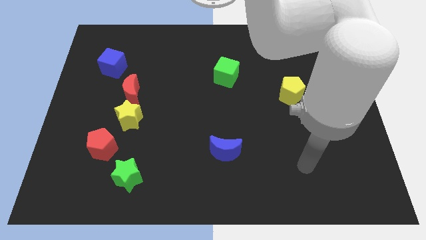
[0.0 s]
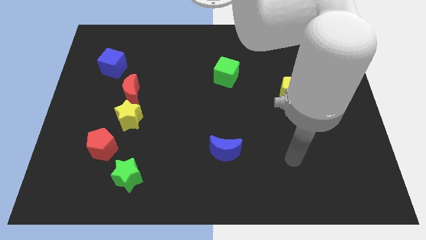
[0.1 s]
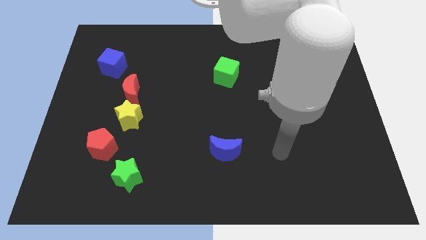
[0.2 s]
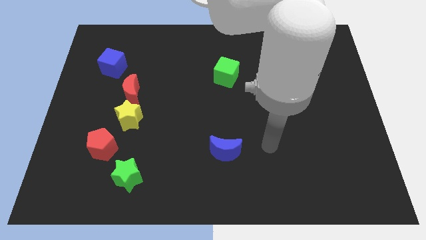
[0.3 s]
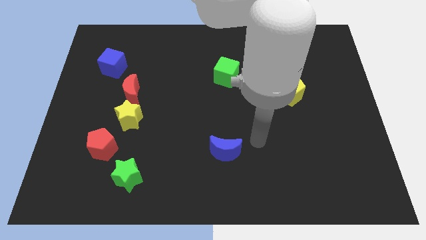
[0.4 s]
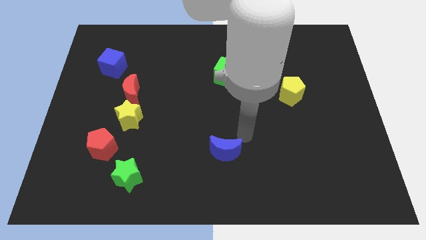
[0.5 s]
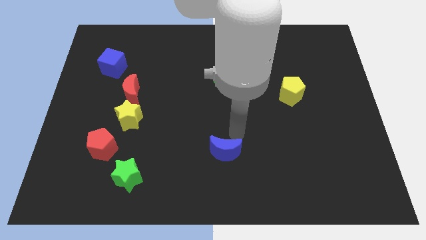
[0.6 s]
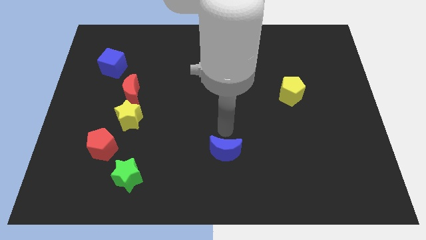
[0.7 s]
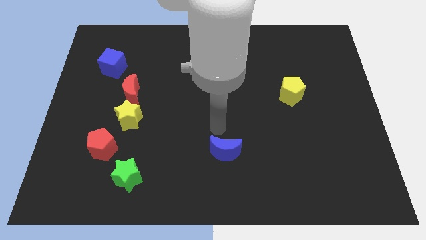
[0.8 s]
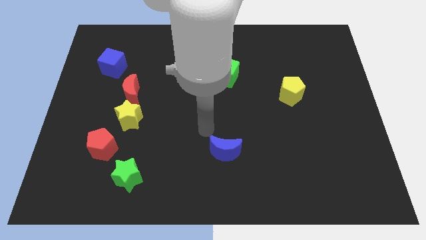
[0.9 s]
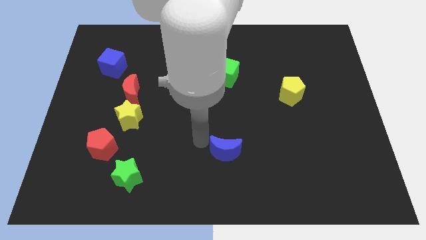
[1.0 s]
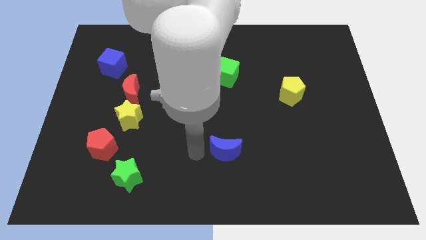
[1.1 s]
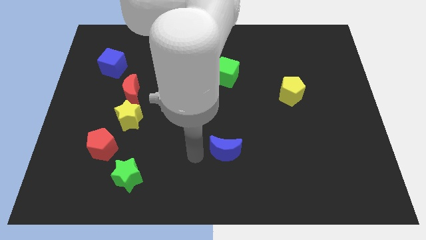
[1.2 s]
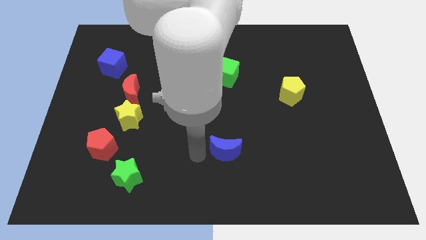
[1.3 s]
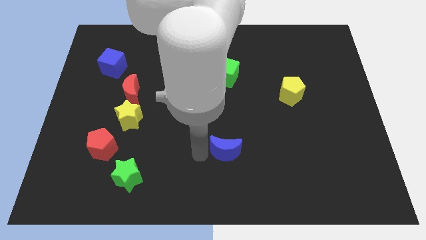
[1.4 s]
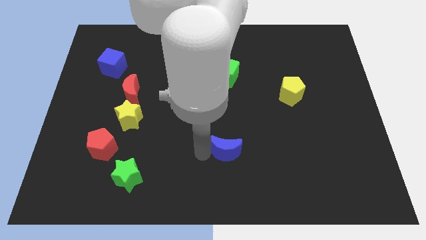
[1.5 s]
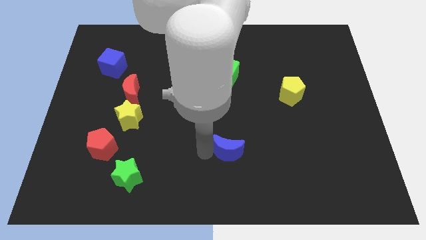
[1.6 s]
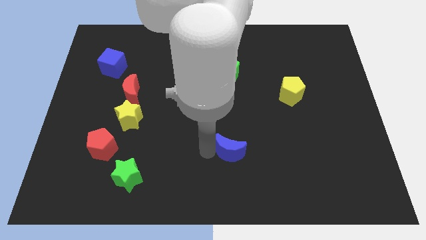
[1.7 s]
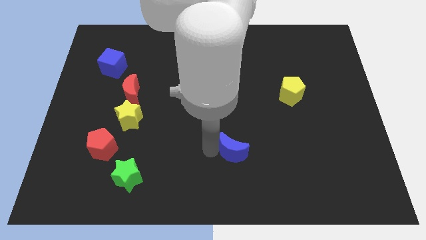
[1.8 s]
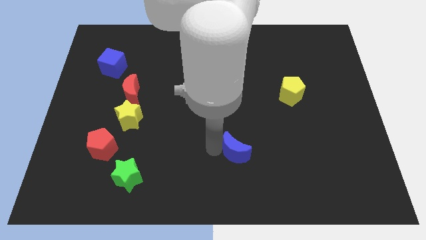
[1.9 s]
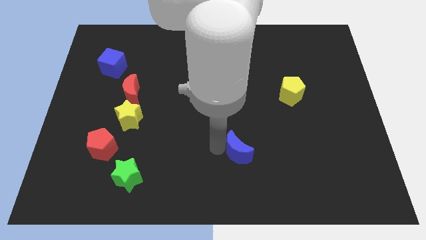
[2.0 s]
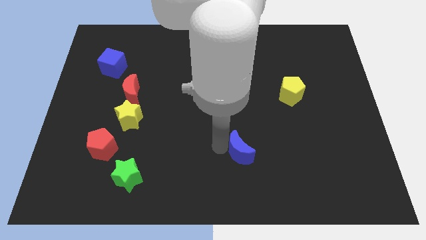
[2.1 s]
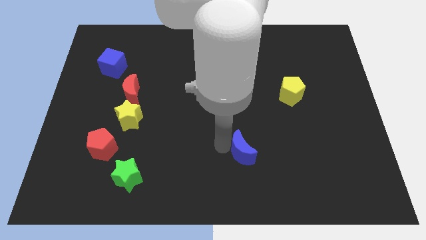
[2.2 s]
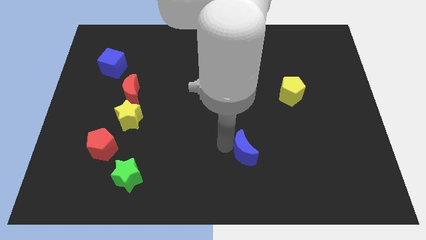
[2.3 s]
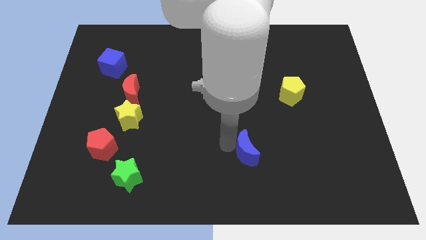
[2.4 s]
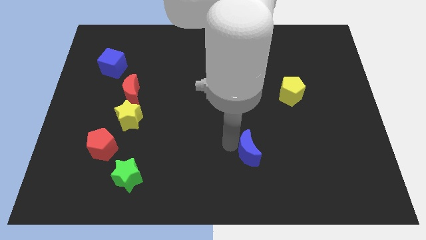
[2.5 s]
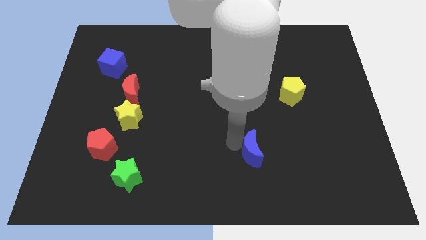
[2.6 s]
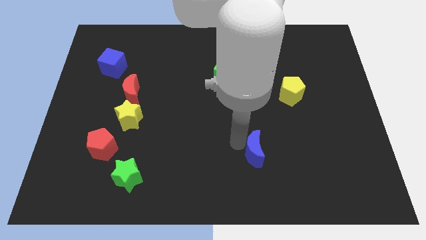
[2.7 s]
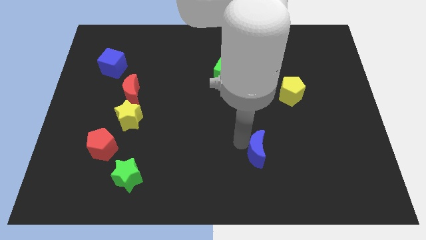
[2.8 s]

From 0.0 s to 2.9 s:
slightly slide the blue moon to the right

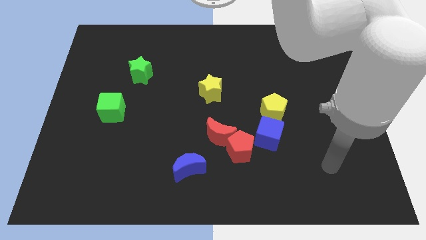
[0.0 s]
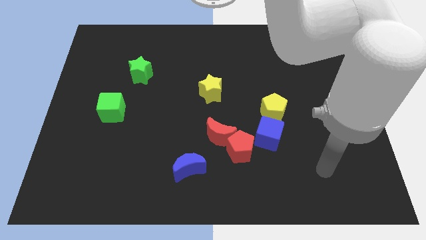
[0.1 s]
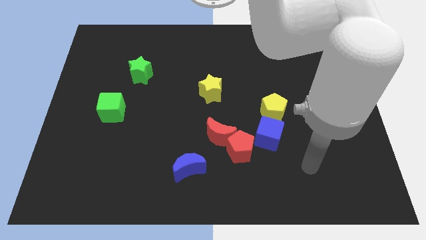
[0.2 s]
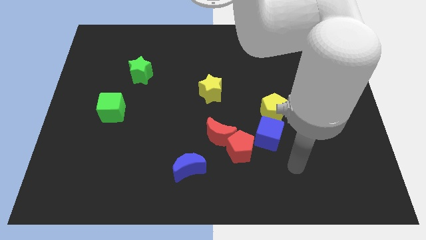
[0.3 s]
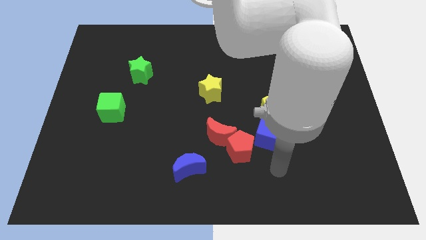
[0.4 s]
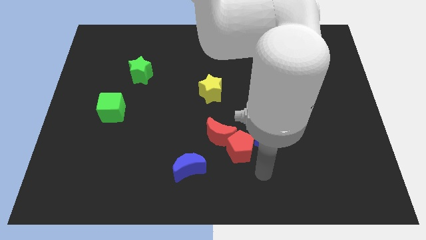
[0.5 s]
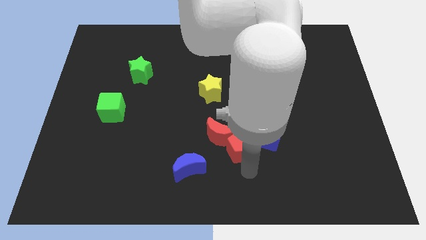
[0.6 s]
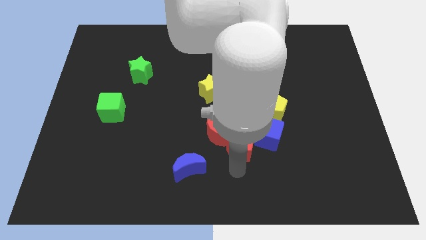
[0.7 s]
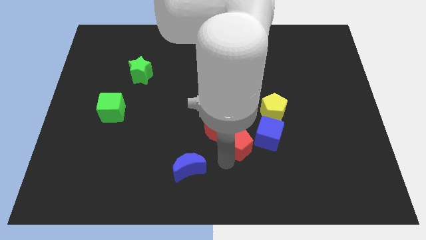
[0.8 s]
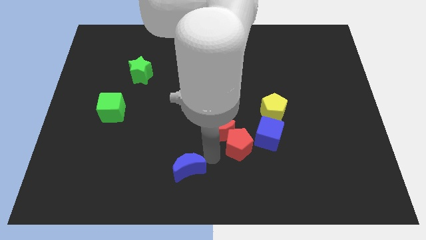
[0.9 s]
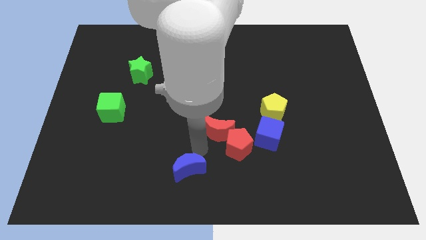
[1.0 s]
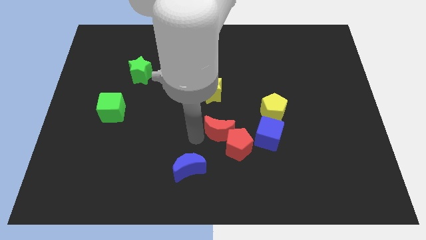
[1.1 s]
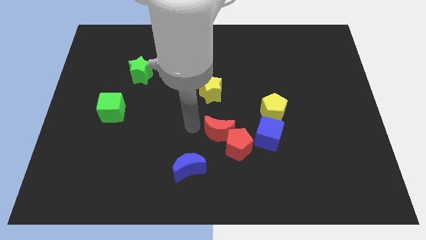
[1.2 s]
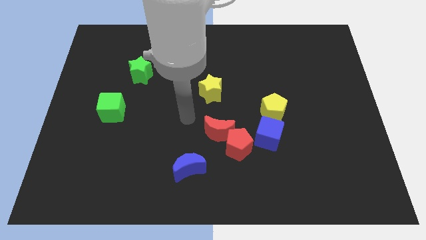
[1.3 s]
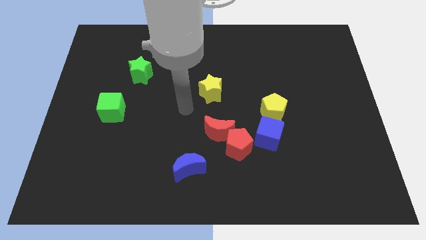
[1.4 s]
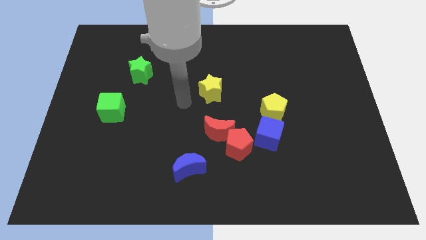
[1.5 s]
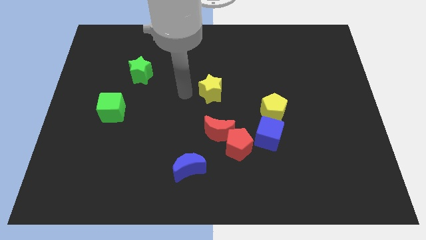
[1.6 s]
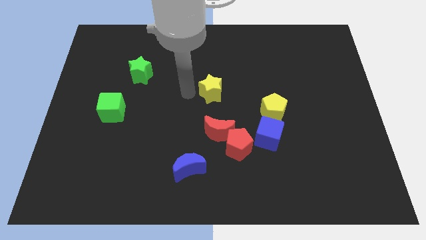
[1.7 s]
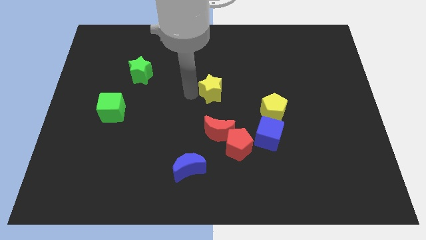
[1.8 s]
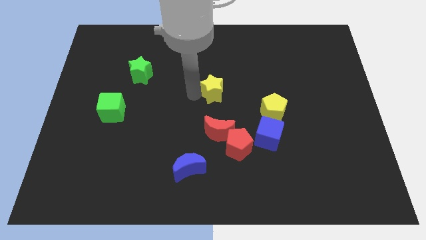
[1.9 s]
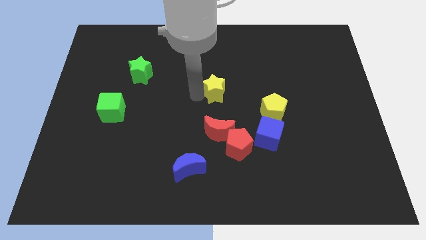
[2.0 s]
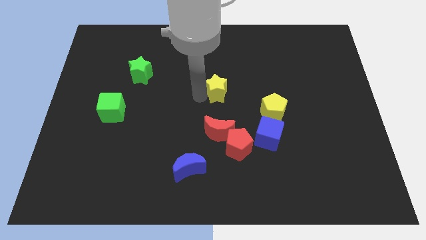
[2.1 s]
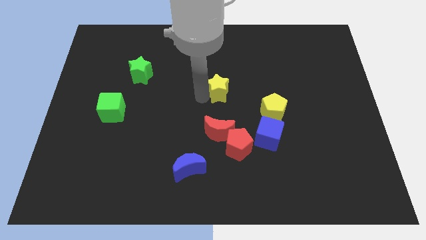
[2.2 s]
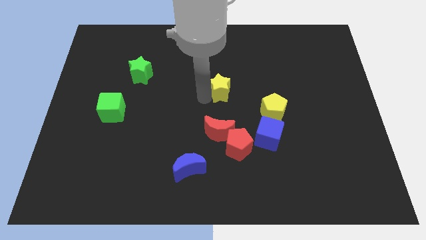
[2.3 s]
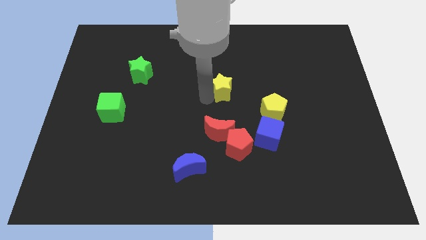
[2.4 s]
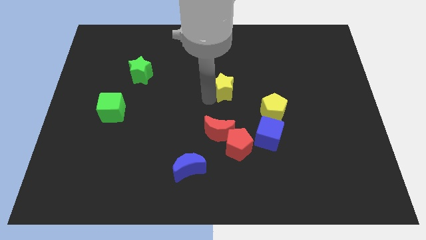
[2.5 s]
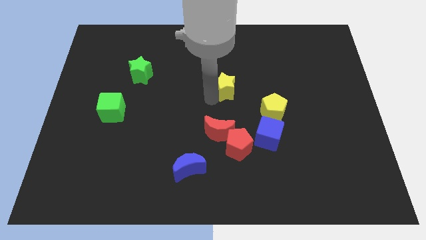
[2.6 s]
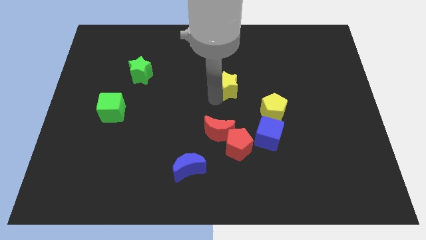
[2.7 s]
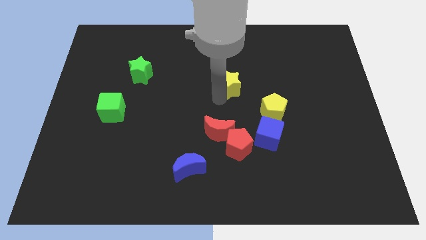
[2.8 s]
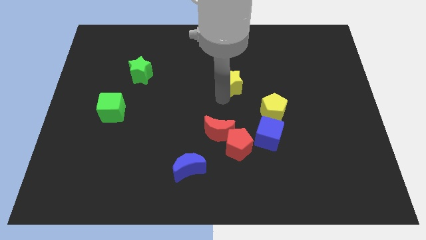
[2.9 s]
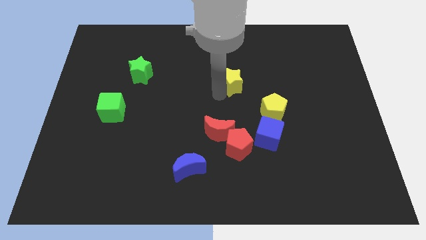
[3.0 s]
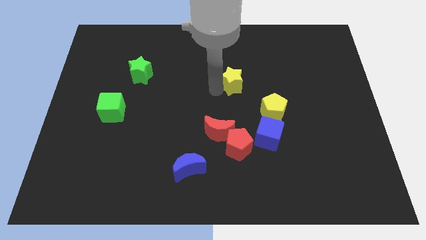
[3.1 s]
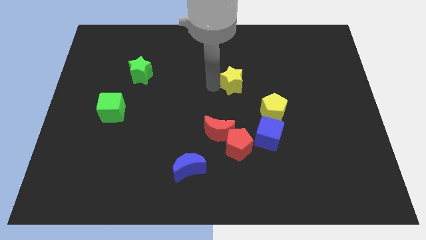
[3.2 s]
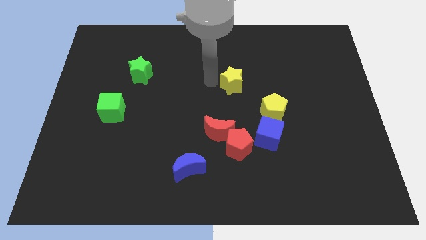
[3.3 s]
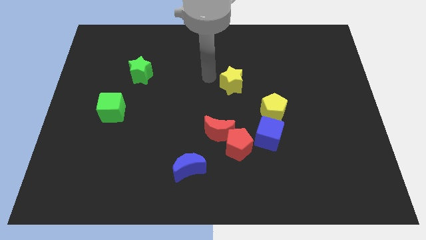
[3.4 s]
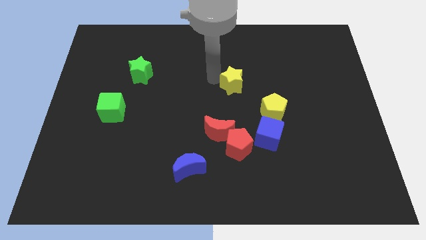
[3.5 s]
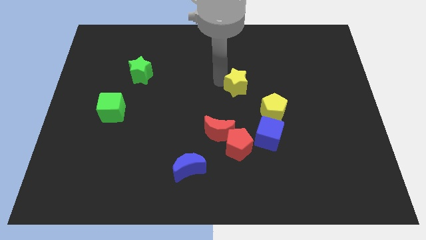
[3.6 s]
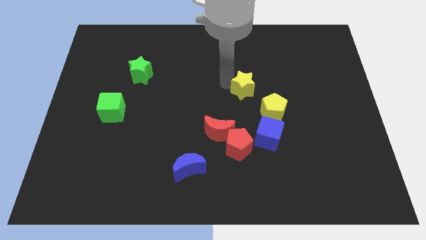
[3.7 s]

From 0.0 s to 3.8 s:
push the yellow star to the right slightly

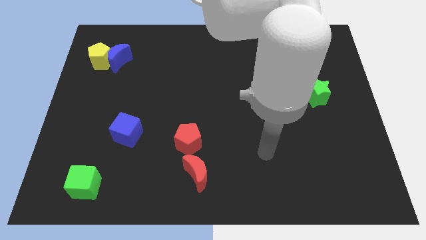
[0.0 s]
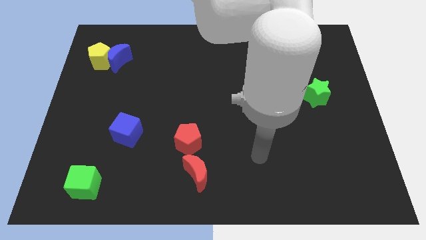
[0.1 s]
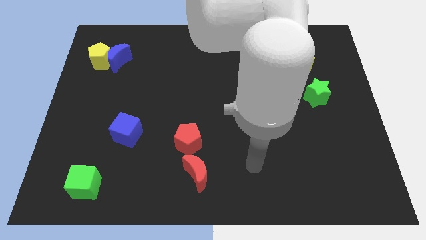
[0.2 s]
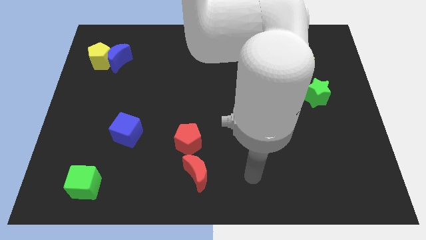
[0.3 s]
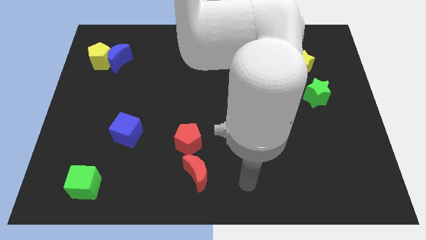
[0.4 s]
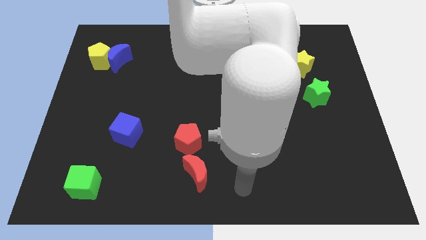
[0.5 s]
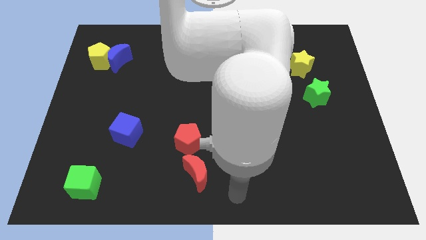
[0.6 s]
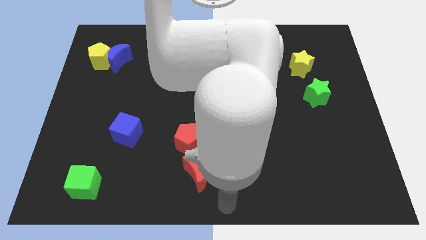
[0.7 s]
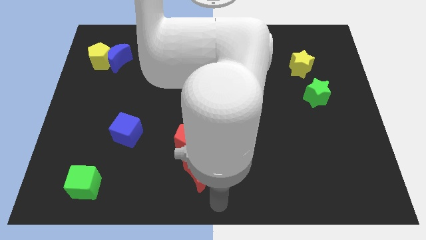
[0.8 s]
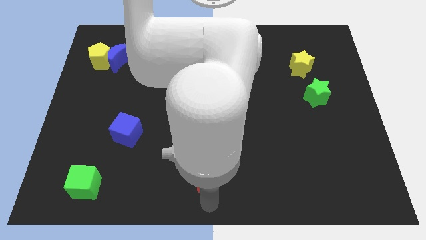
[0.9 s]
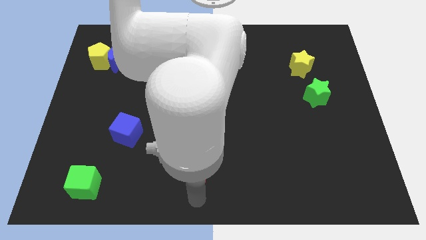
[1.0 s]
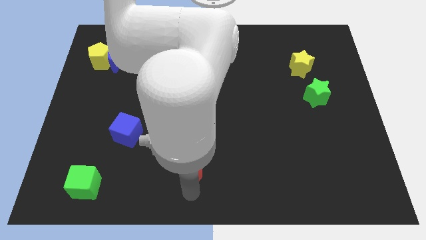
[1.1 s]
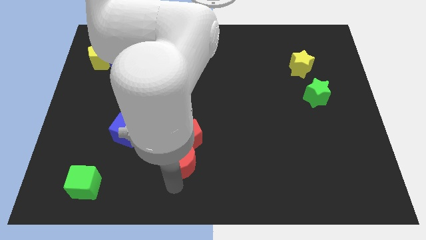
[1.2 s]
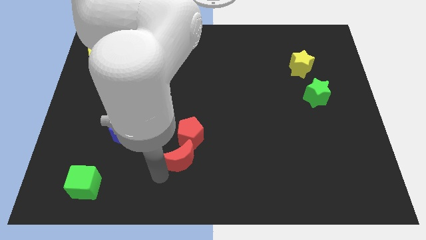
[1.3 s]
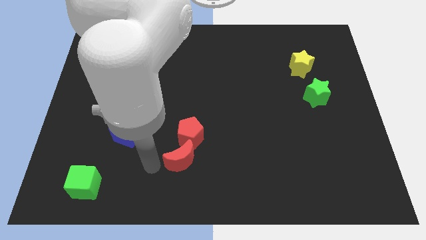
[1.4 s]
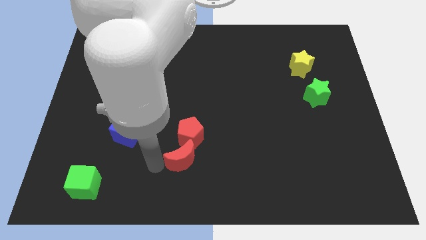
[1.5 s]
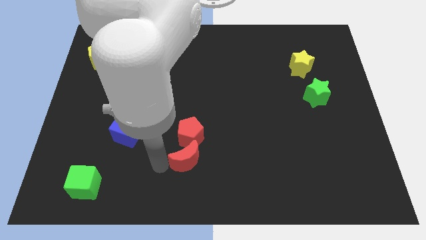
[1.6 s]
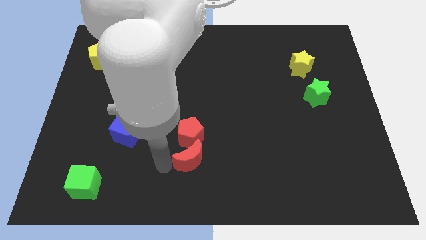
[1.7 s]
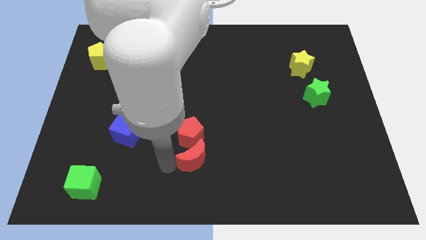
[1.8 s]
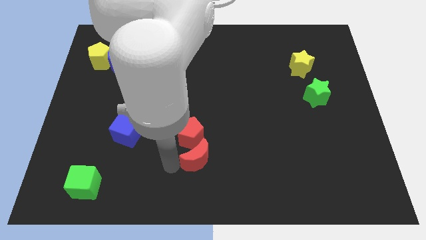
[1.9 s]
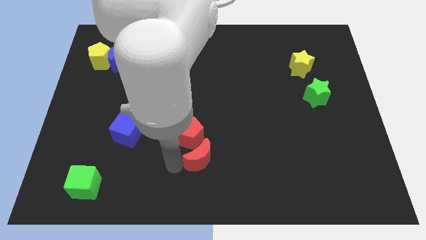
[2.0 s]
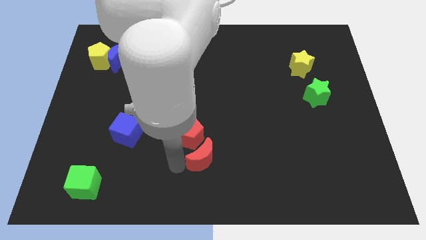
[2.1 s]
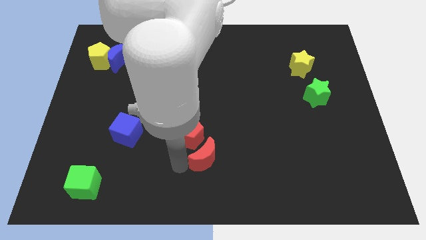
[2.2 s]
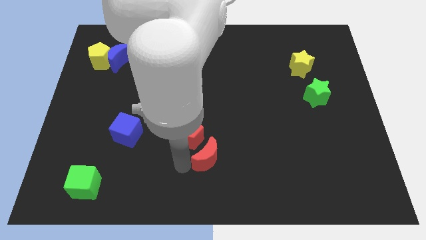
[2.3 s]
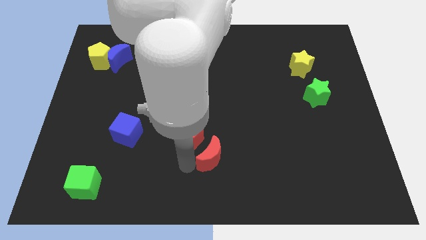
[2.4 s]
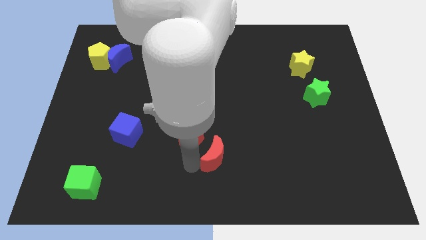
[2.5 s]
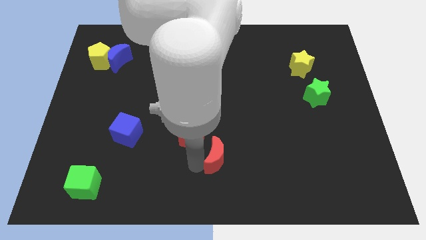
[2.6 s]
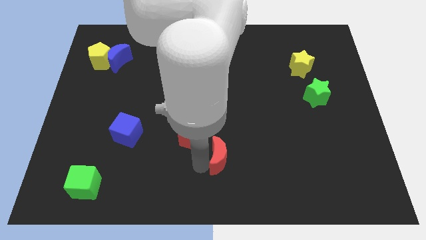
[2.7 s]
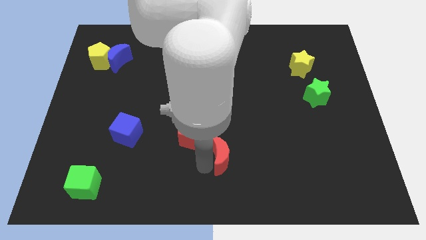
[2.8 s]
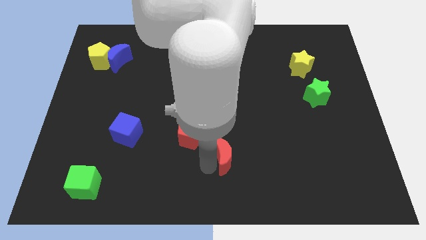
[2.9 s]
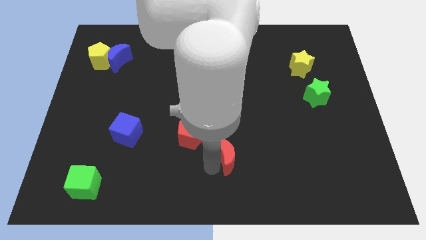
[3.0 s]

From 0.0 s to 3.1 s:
slide the red moon a bit up and then right
